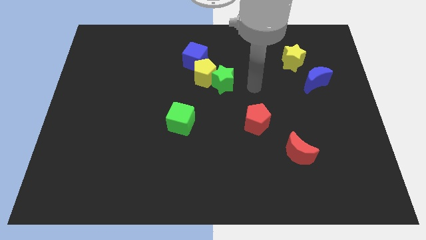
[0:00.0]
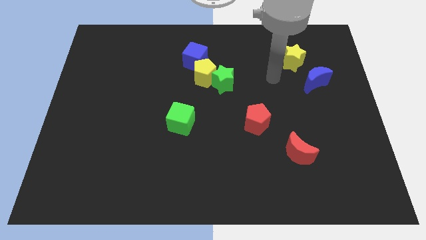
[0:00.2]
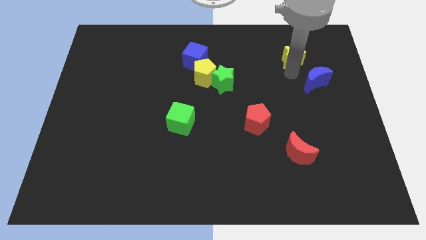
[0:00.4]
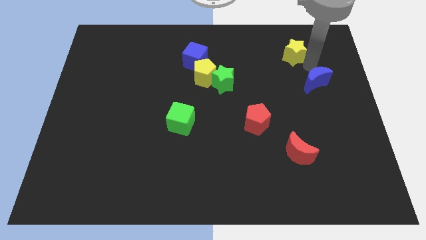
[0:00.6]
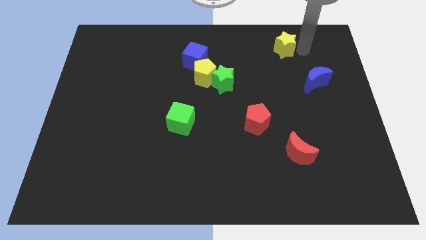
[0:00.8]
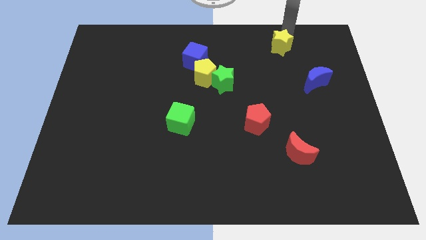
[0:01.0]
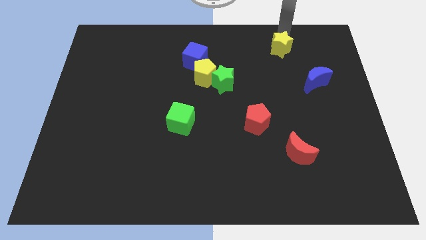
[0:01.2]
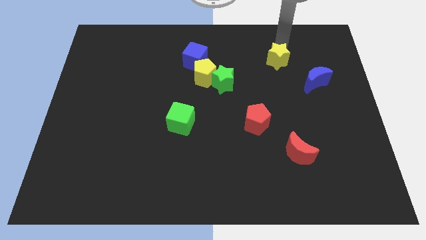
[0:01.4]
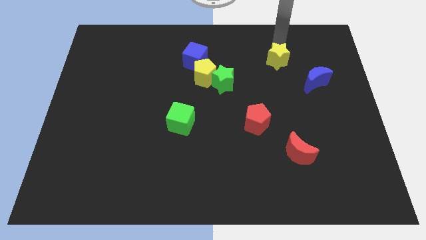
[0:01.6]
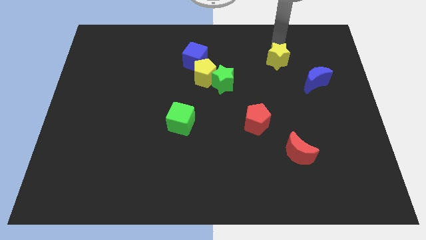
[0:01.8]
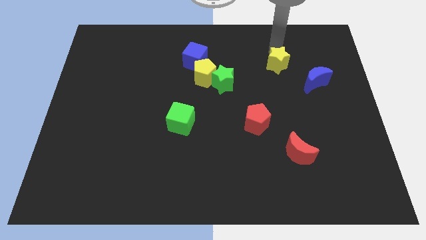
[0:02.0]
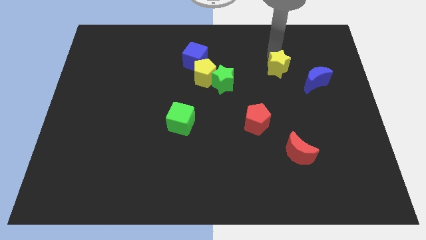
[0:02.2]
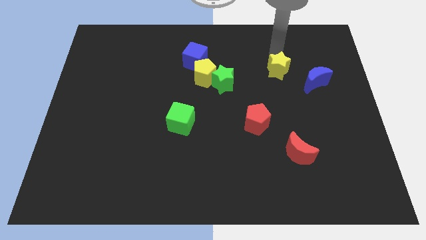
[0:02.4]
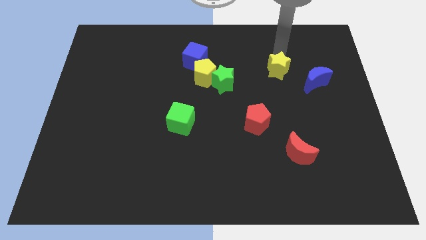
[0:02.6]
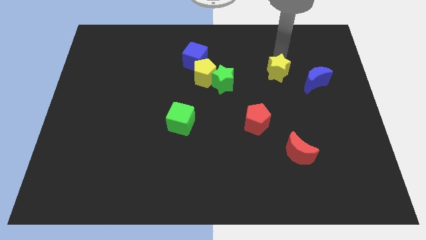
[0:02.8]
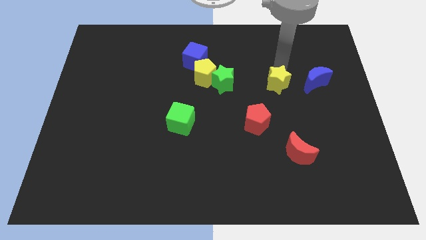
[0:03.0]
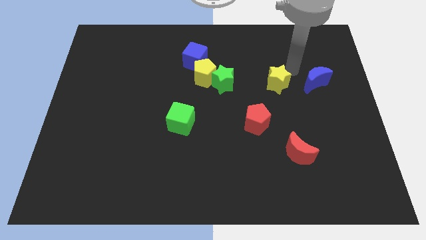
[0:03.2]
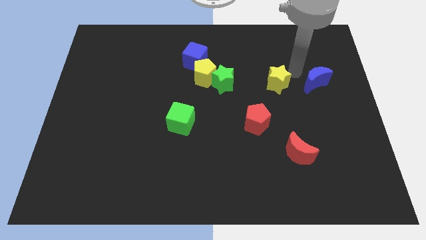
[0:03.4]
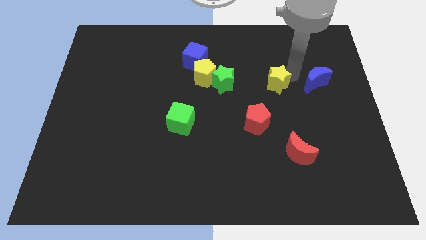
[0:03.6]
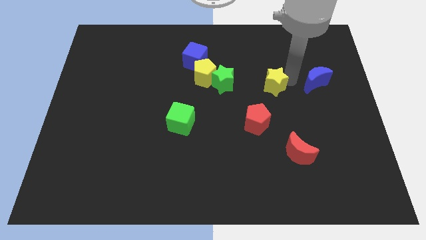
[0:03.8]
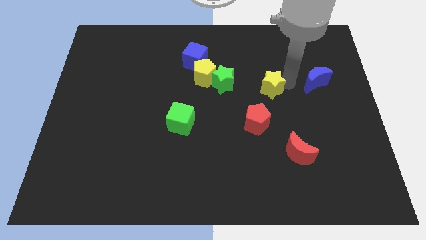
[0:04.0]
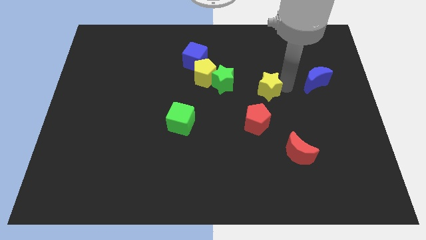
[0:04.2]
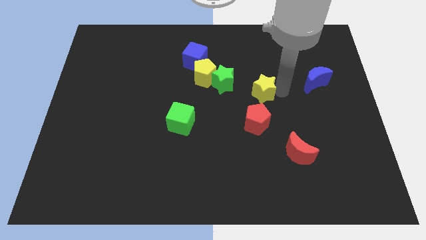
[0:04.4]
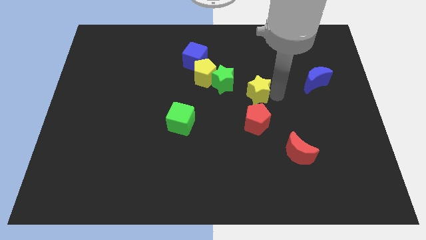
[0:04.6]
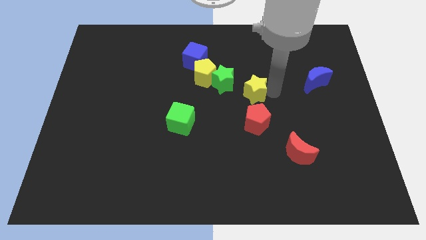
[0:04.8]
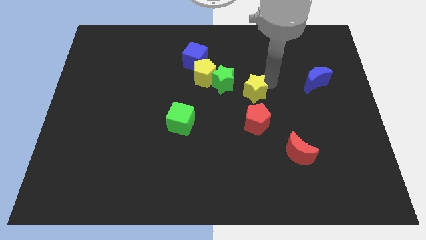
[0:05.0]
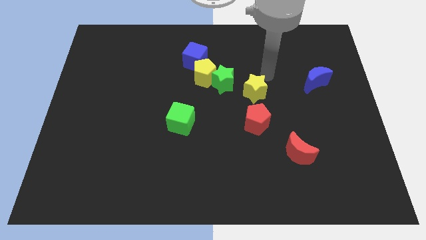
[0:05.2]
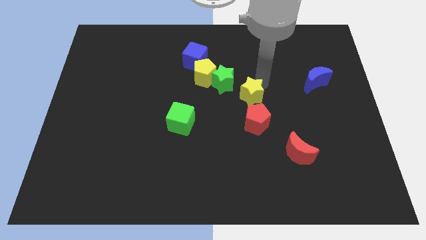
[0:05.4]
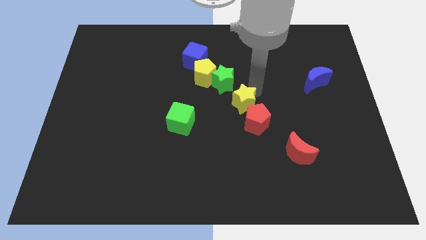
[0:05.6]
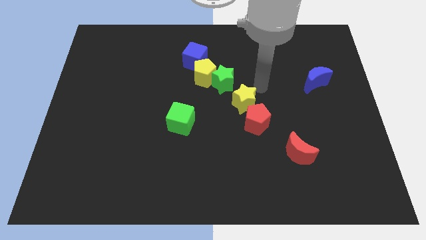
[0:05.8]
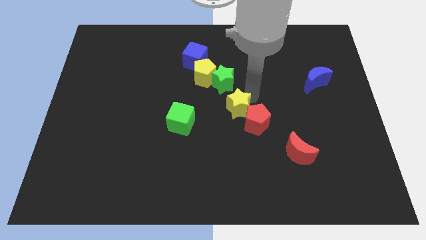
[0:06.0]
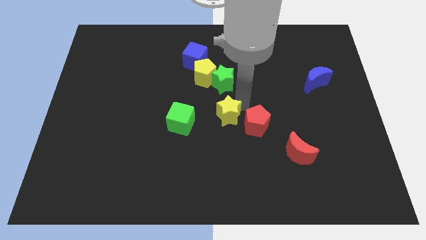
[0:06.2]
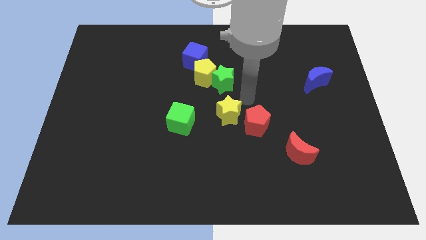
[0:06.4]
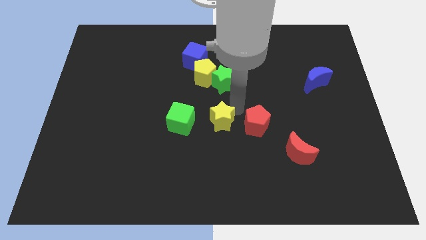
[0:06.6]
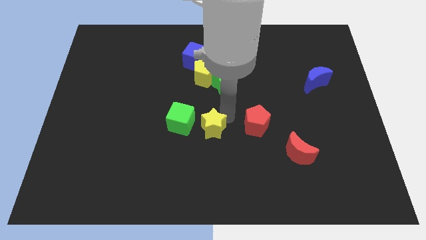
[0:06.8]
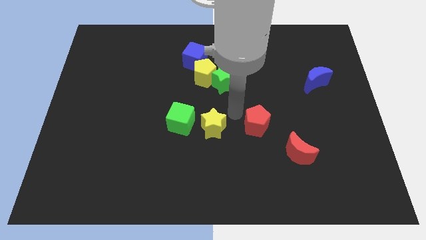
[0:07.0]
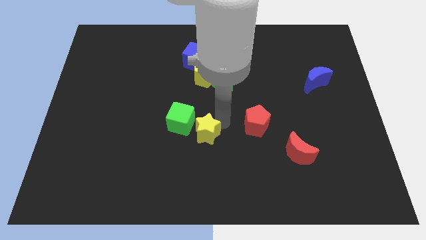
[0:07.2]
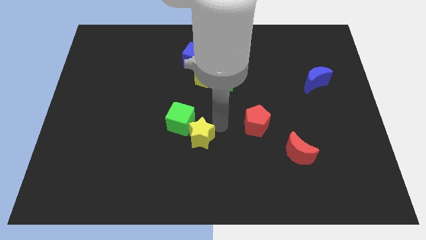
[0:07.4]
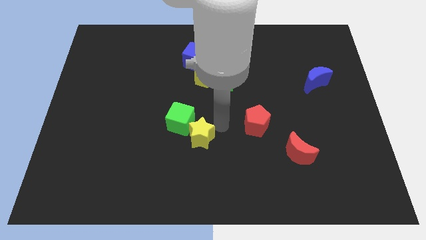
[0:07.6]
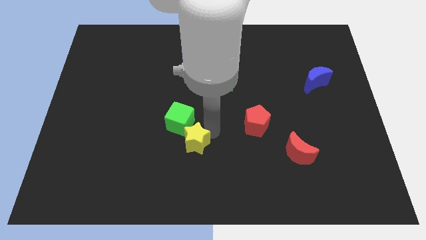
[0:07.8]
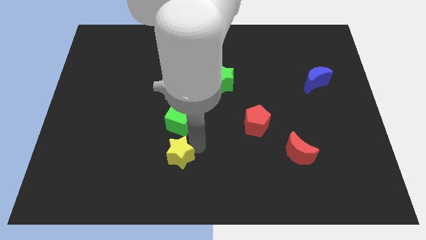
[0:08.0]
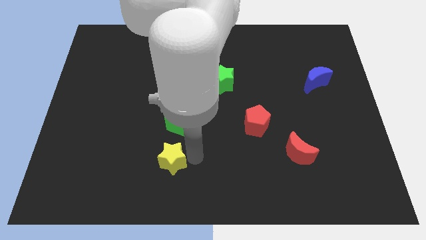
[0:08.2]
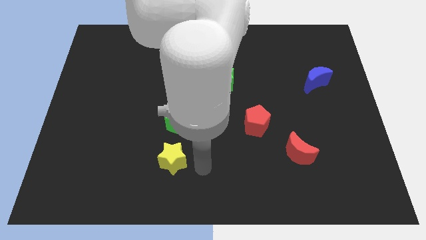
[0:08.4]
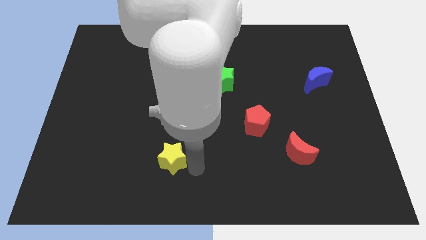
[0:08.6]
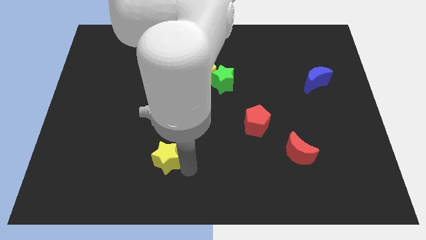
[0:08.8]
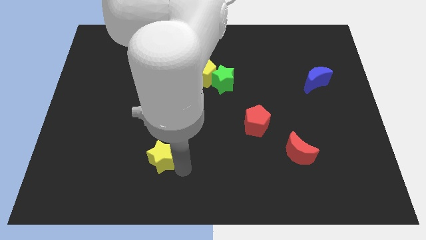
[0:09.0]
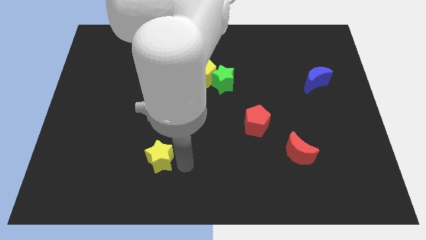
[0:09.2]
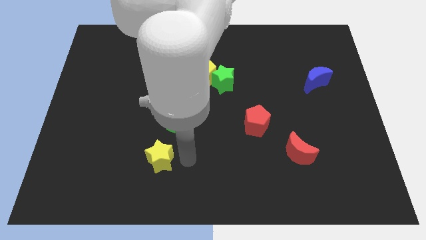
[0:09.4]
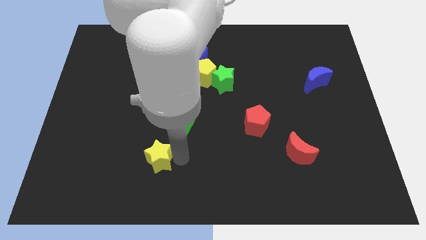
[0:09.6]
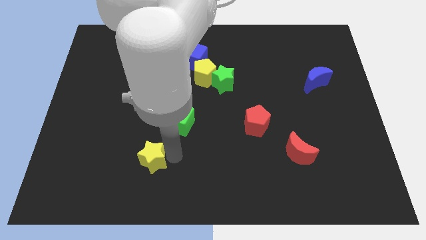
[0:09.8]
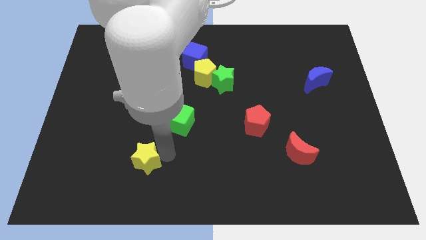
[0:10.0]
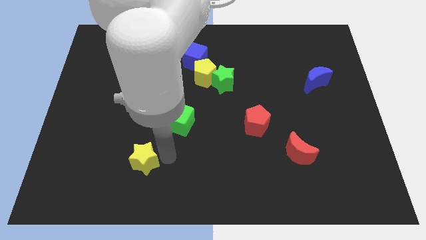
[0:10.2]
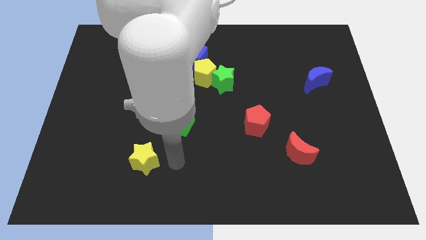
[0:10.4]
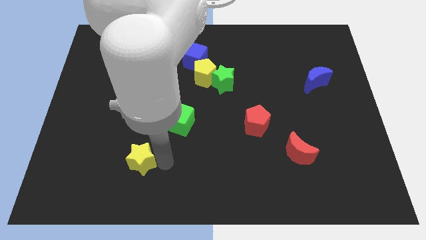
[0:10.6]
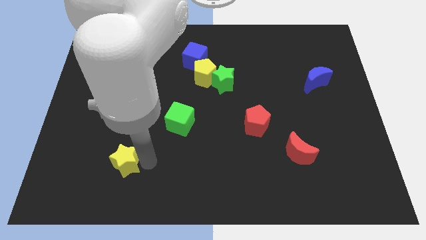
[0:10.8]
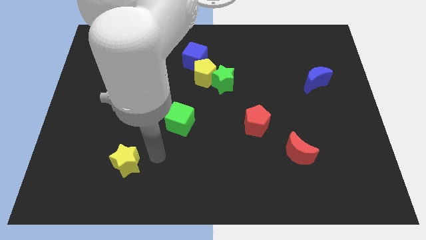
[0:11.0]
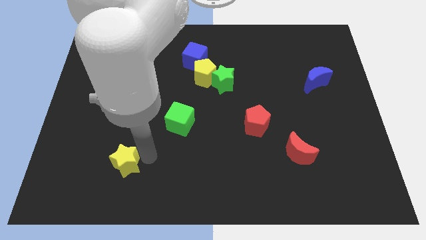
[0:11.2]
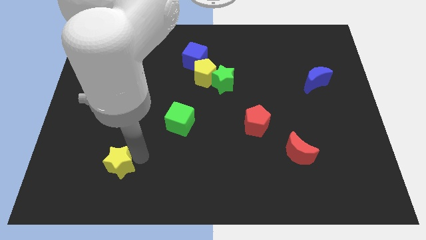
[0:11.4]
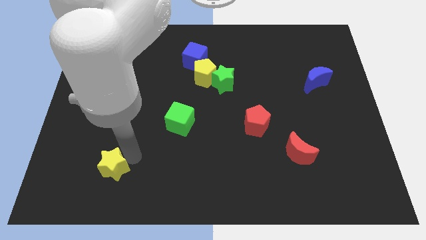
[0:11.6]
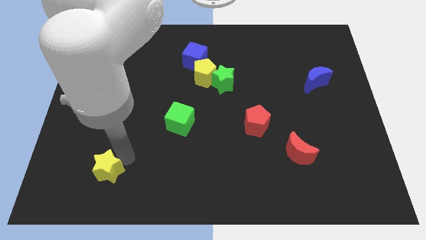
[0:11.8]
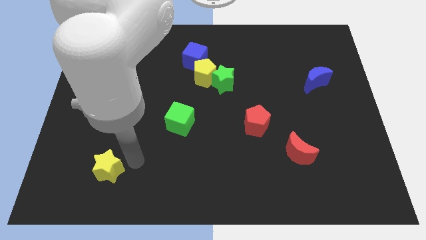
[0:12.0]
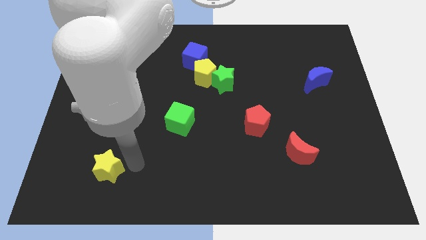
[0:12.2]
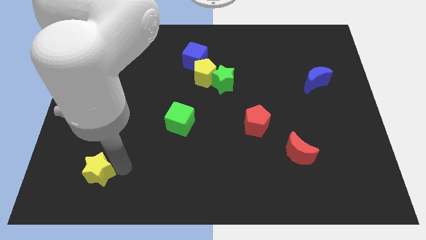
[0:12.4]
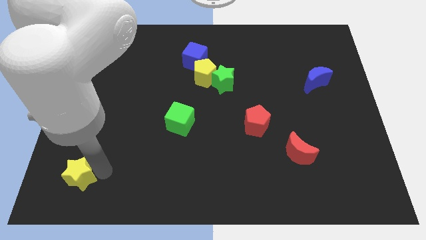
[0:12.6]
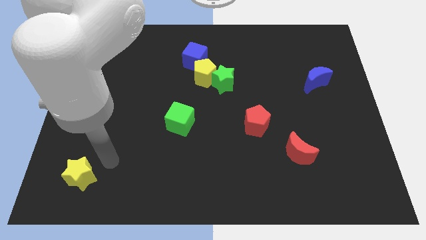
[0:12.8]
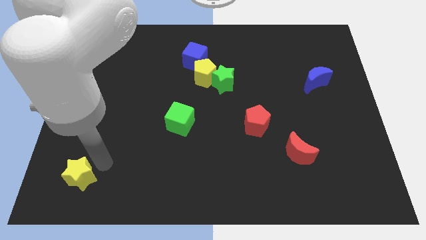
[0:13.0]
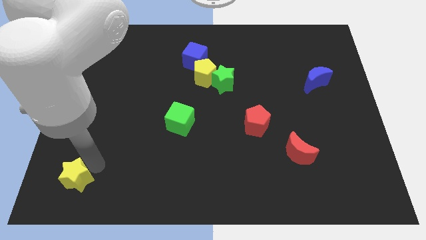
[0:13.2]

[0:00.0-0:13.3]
push the yellow star to the bottom left of the board
